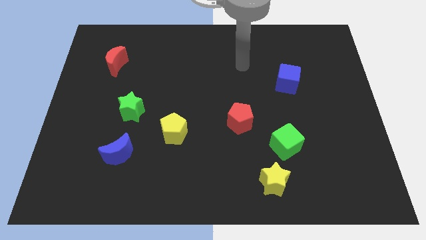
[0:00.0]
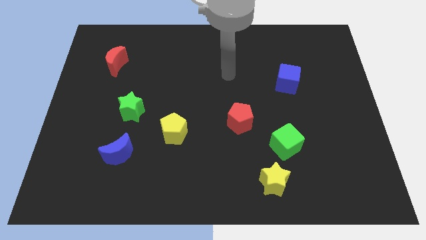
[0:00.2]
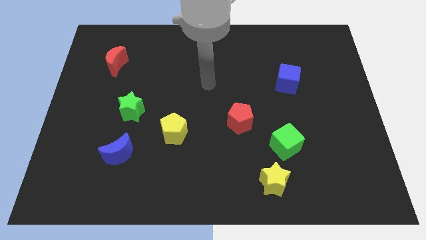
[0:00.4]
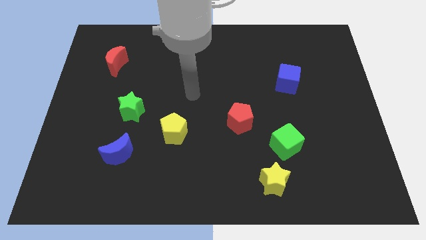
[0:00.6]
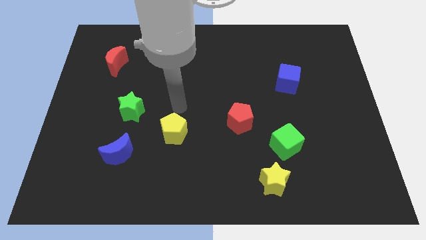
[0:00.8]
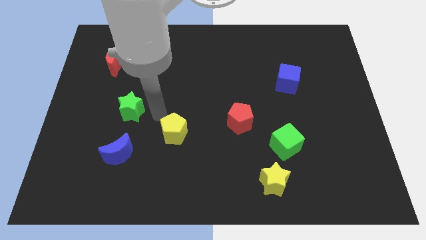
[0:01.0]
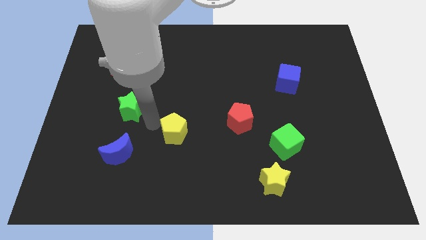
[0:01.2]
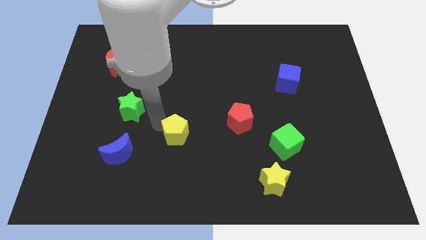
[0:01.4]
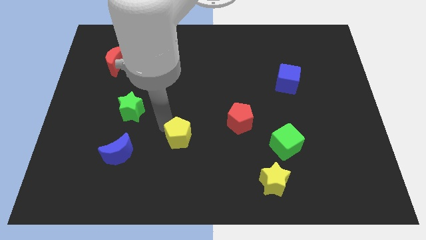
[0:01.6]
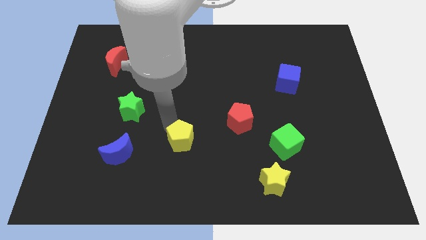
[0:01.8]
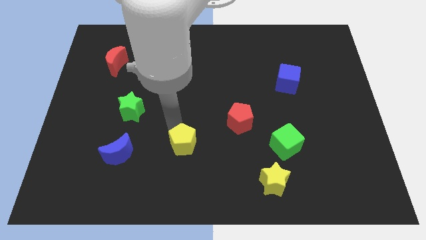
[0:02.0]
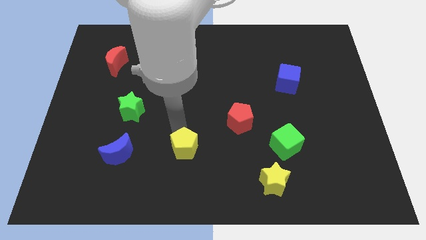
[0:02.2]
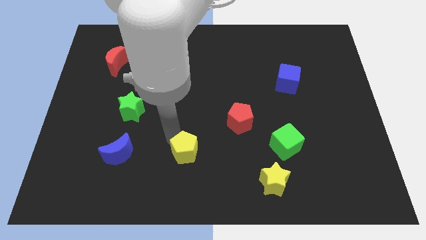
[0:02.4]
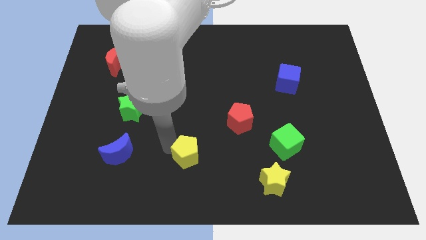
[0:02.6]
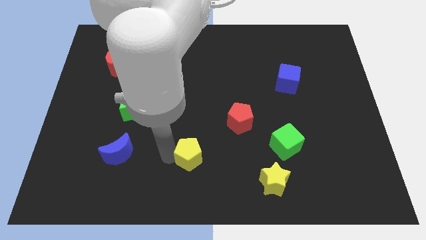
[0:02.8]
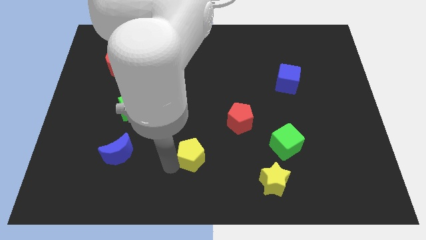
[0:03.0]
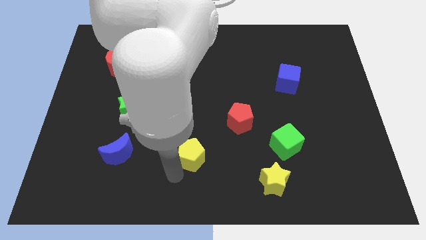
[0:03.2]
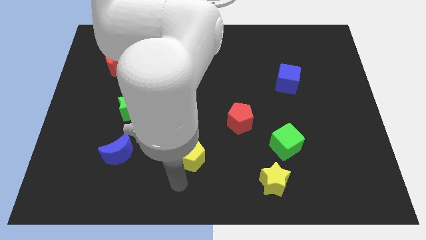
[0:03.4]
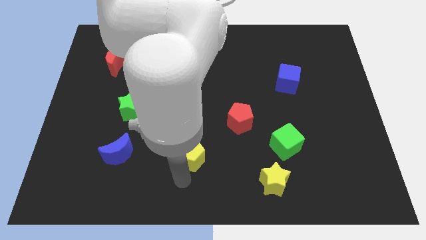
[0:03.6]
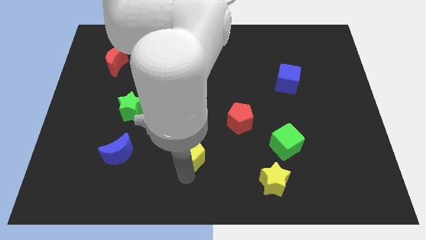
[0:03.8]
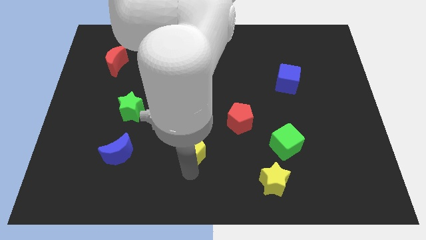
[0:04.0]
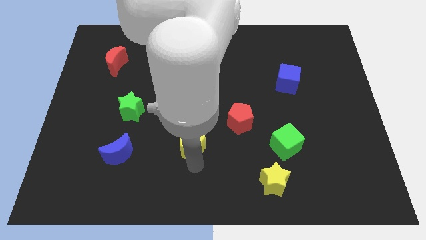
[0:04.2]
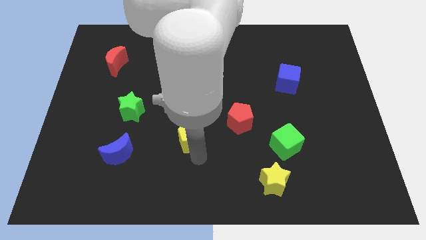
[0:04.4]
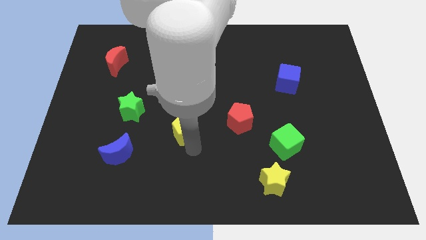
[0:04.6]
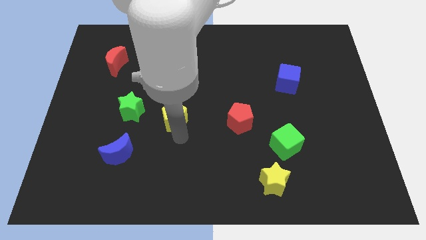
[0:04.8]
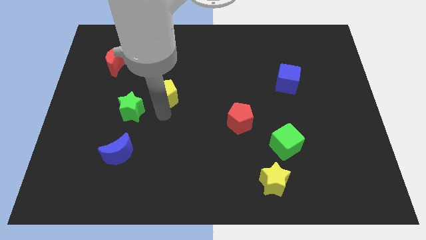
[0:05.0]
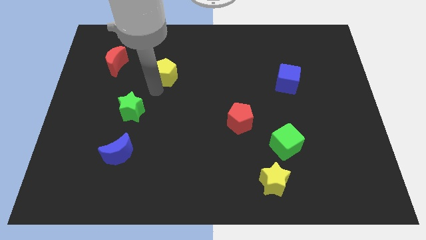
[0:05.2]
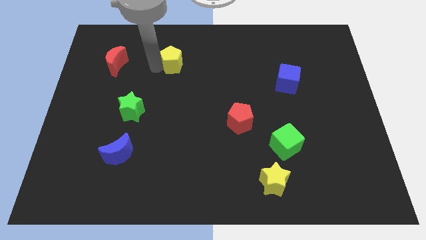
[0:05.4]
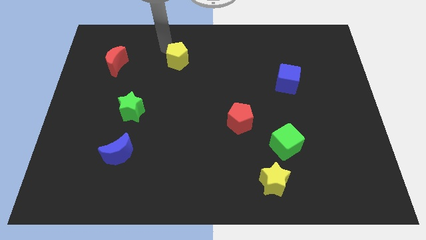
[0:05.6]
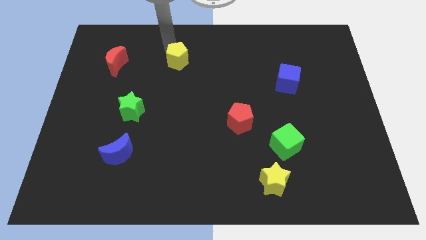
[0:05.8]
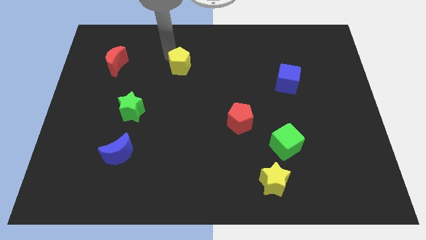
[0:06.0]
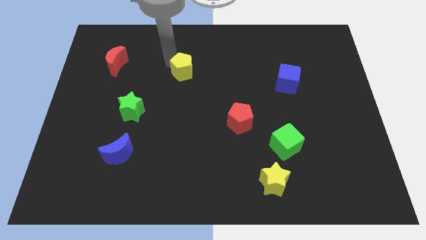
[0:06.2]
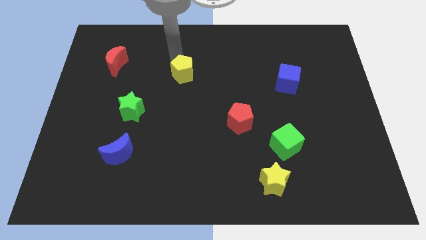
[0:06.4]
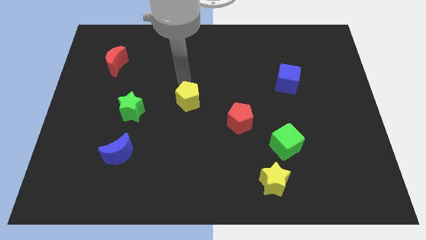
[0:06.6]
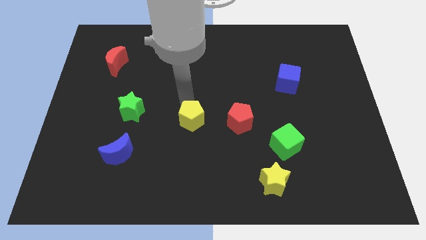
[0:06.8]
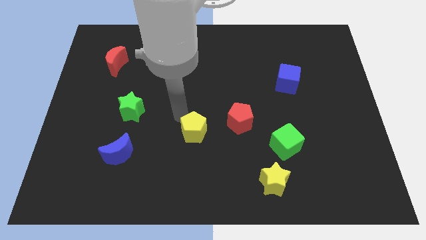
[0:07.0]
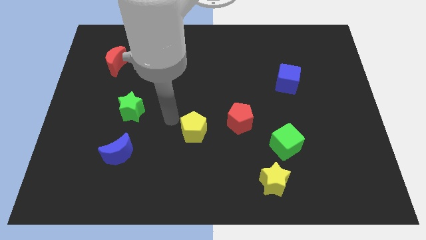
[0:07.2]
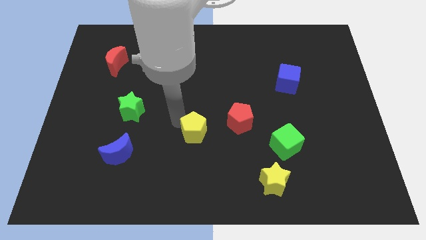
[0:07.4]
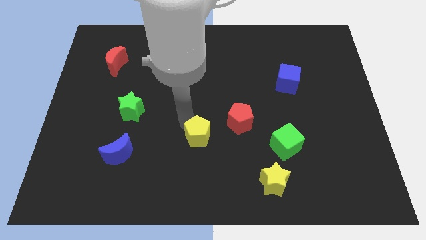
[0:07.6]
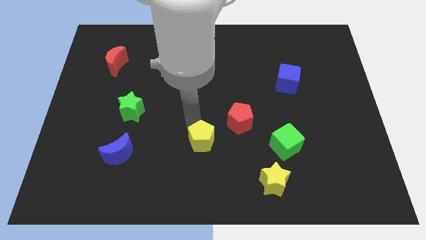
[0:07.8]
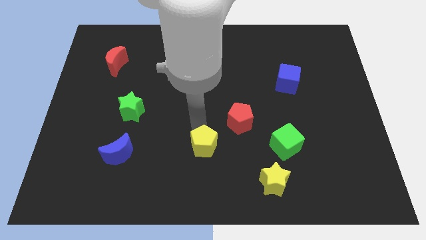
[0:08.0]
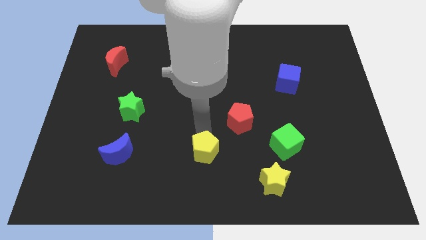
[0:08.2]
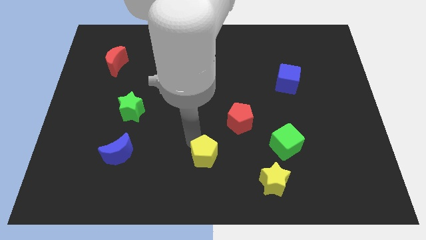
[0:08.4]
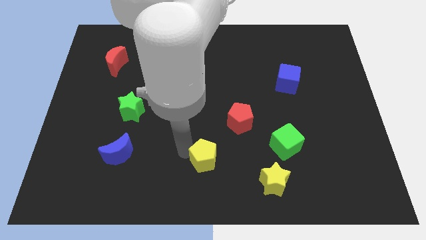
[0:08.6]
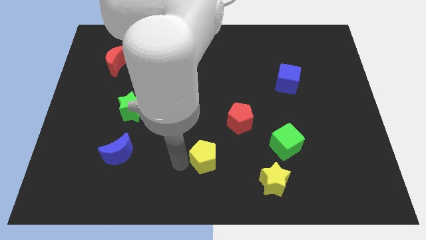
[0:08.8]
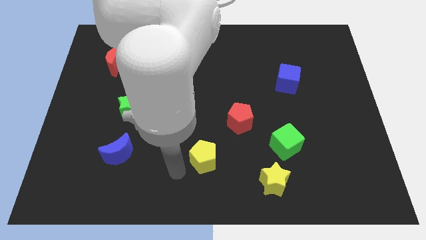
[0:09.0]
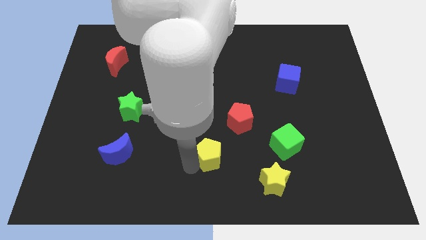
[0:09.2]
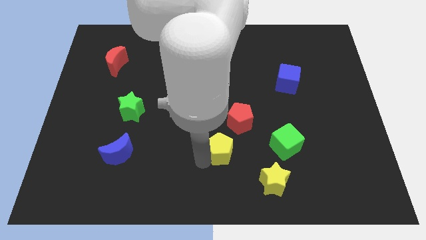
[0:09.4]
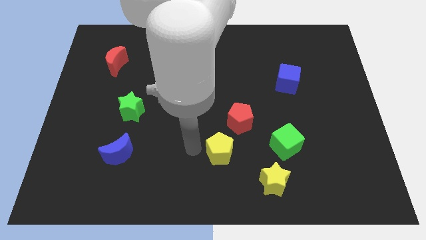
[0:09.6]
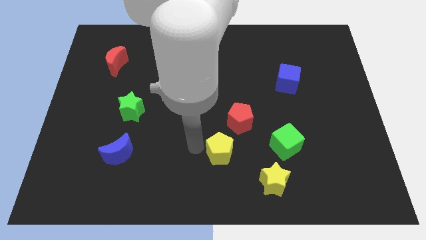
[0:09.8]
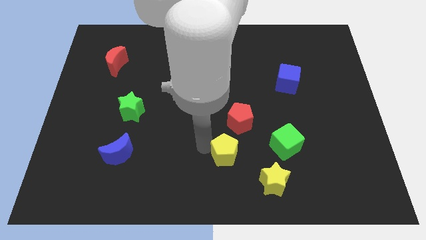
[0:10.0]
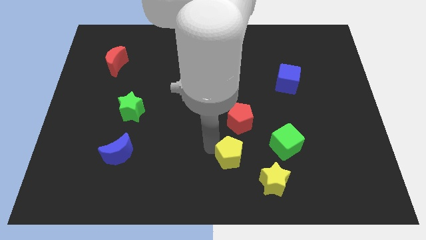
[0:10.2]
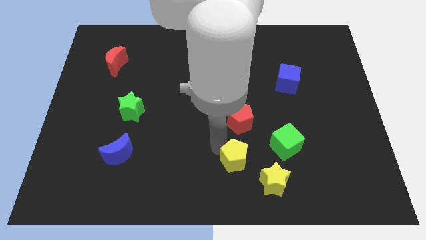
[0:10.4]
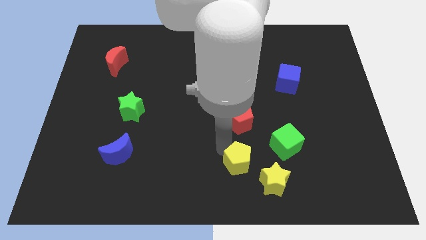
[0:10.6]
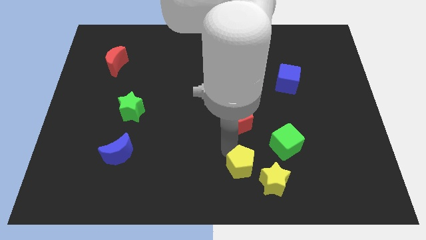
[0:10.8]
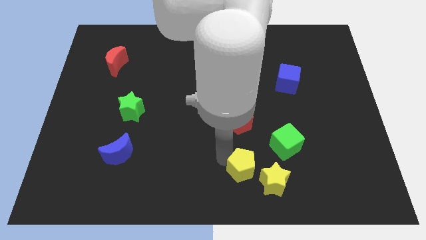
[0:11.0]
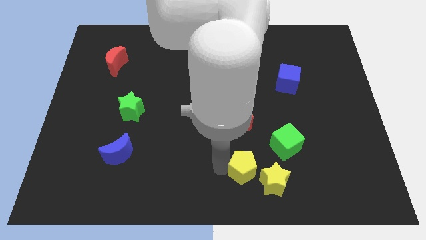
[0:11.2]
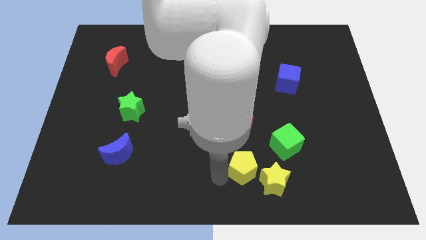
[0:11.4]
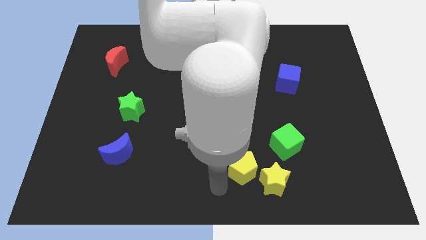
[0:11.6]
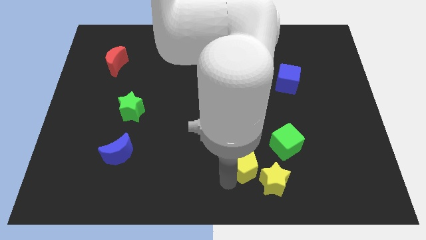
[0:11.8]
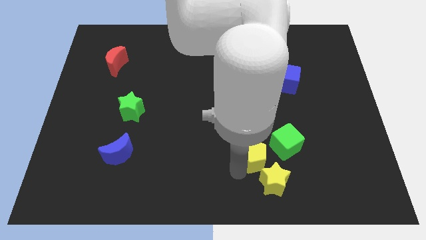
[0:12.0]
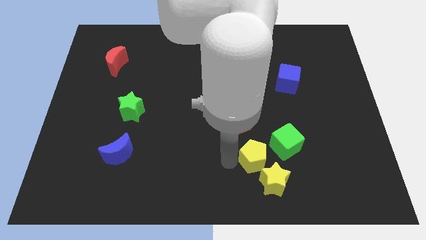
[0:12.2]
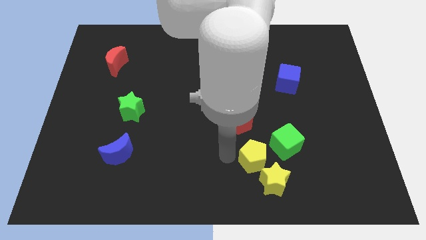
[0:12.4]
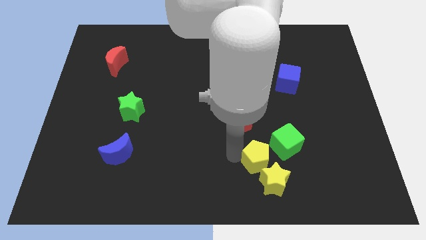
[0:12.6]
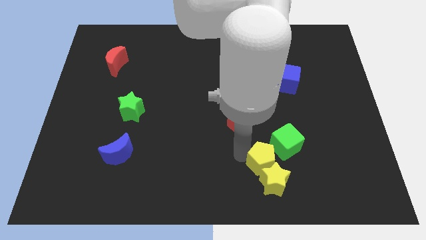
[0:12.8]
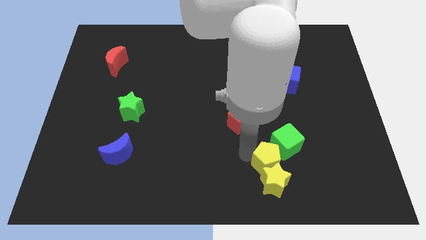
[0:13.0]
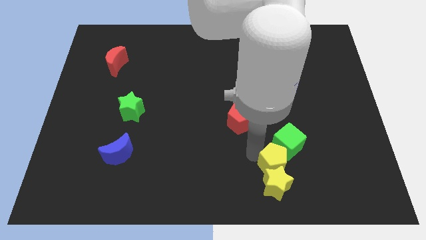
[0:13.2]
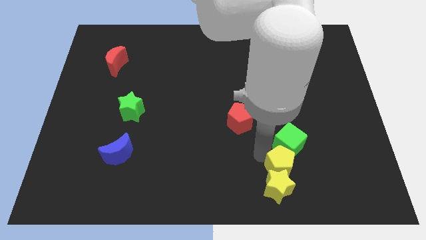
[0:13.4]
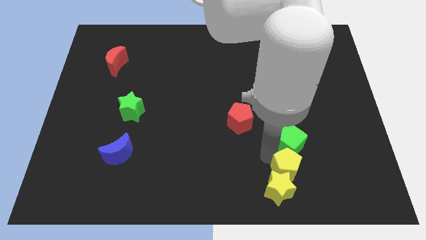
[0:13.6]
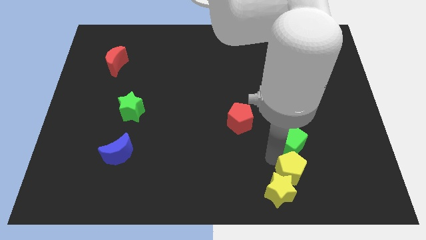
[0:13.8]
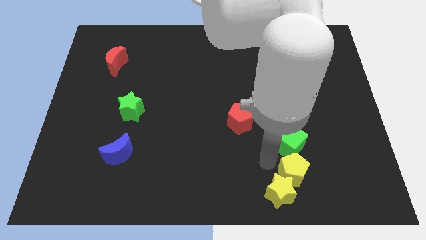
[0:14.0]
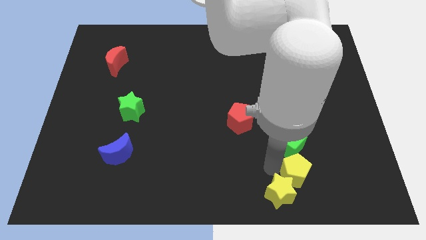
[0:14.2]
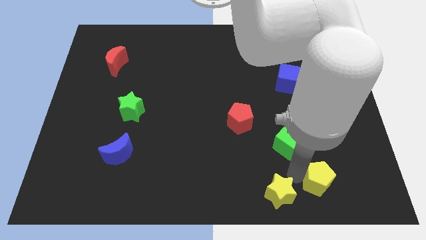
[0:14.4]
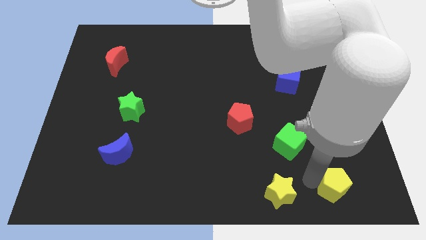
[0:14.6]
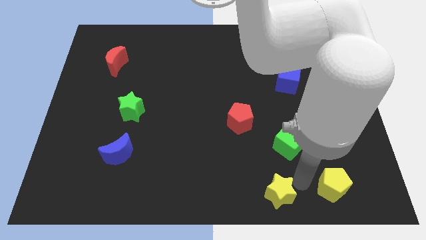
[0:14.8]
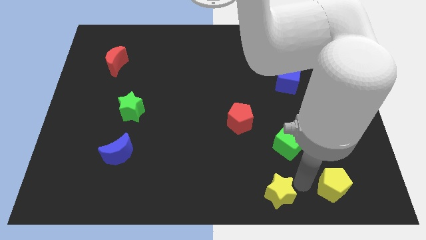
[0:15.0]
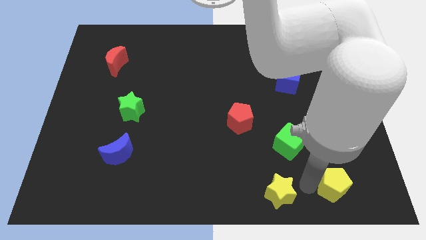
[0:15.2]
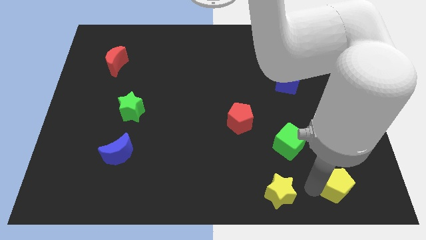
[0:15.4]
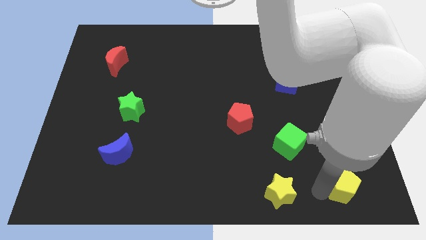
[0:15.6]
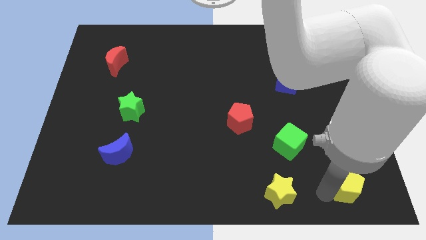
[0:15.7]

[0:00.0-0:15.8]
put the yellow pentagon to the lower right corner
